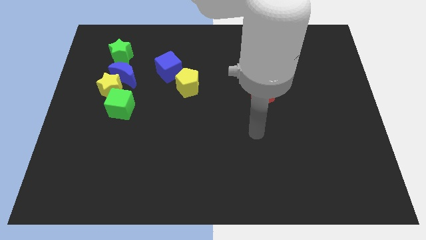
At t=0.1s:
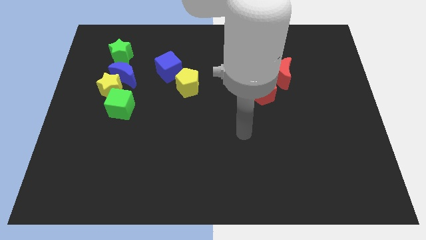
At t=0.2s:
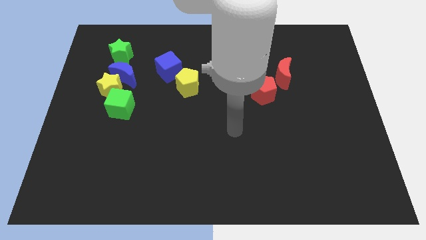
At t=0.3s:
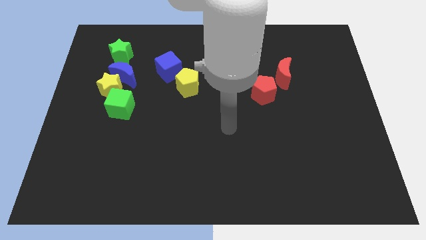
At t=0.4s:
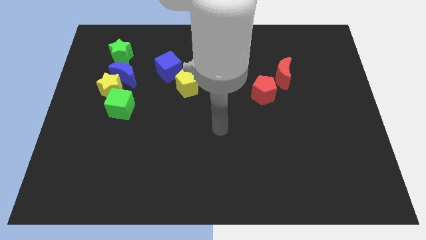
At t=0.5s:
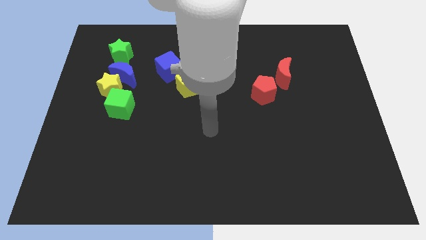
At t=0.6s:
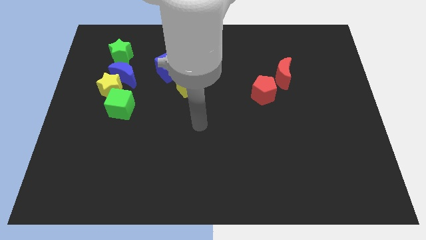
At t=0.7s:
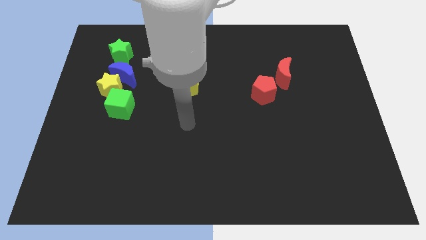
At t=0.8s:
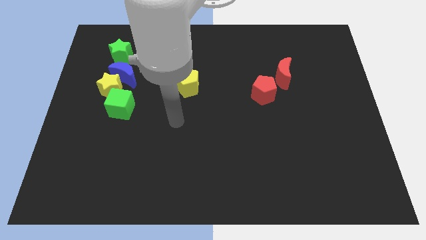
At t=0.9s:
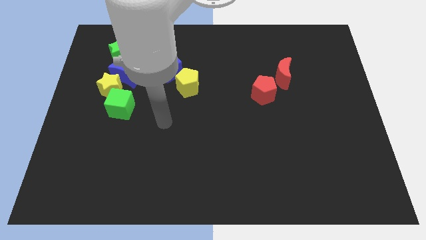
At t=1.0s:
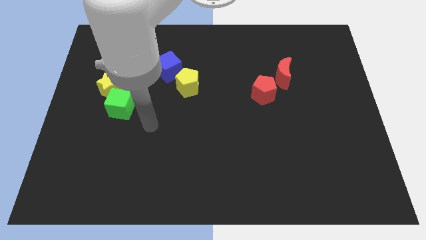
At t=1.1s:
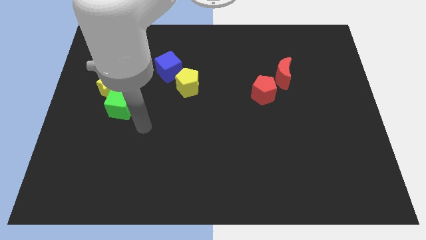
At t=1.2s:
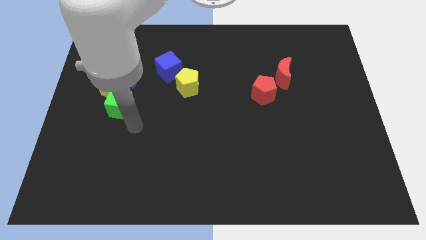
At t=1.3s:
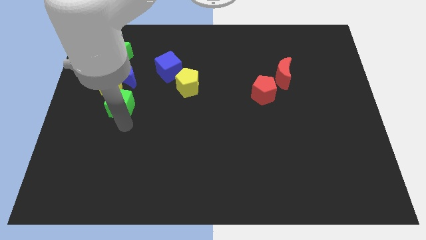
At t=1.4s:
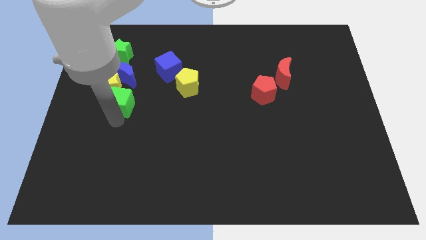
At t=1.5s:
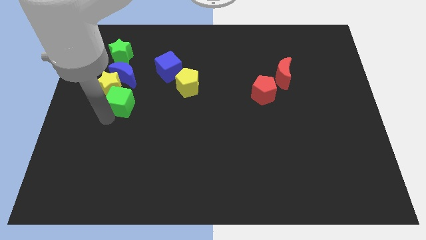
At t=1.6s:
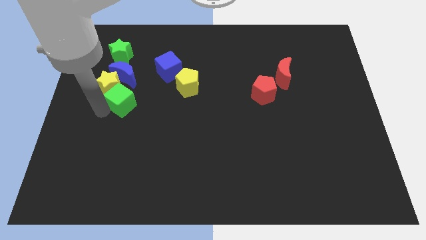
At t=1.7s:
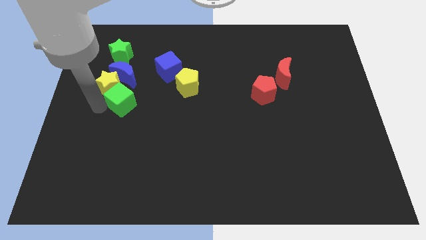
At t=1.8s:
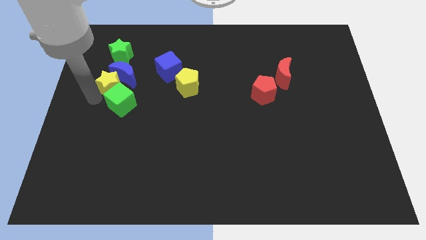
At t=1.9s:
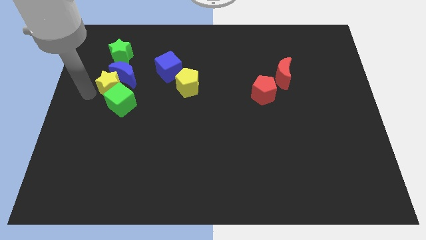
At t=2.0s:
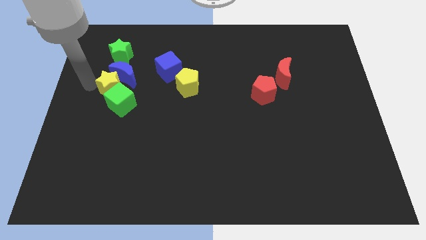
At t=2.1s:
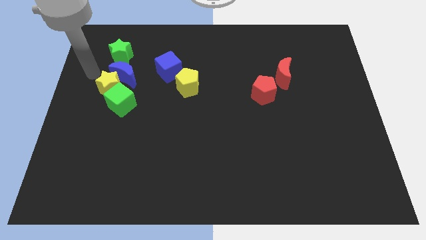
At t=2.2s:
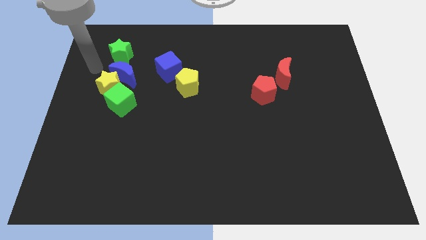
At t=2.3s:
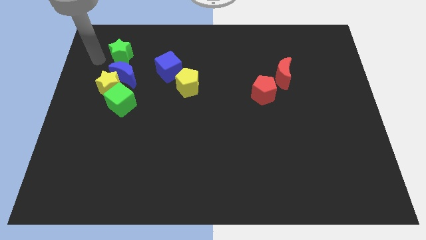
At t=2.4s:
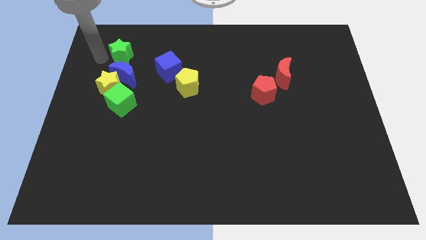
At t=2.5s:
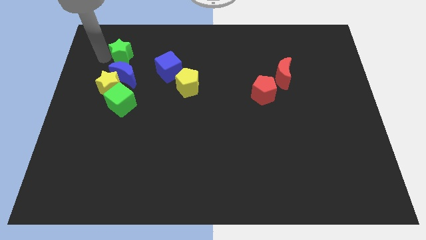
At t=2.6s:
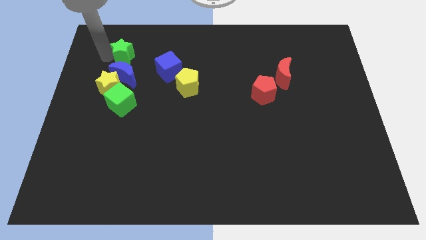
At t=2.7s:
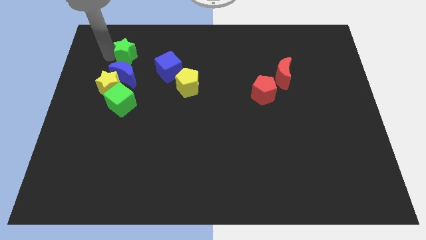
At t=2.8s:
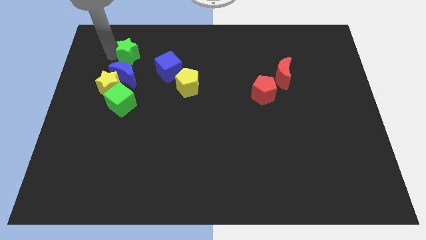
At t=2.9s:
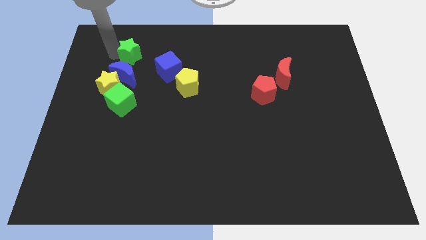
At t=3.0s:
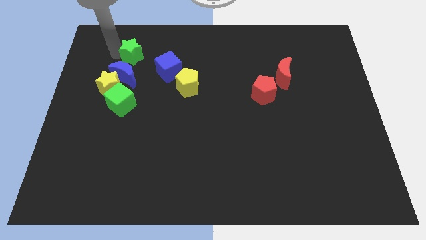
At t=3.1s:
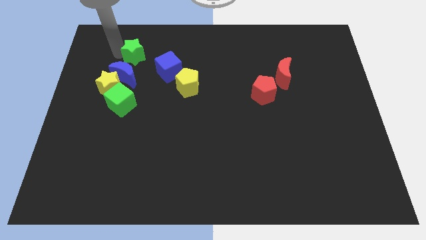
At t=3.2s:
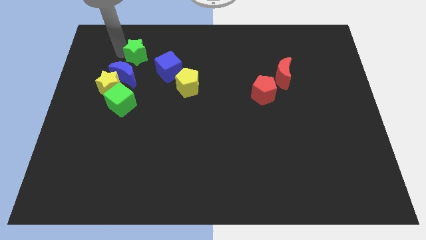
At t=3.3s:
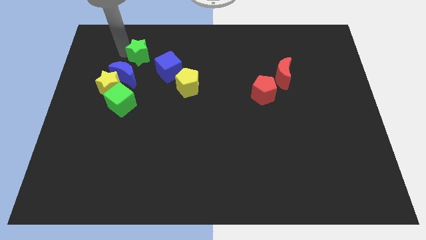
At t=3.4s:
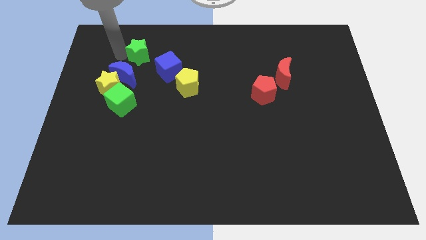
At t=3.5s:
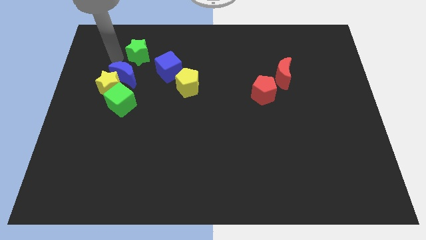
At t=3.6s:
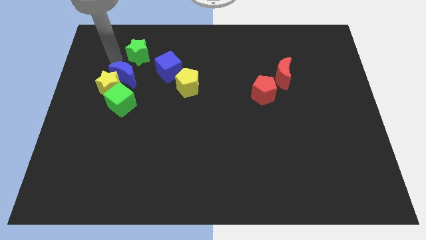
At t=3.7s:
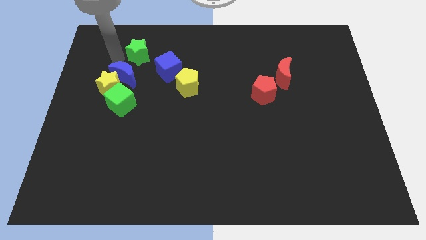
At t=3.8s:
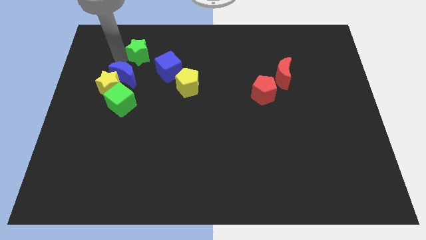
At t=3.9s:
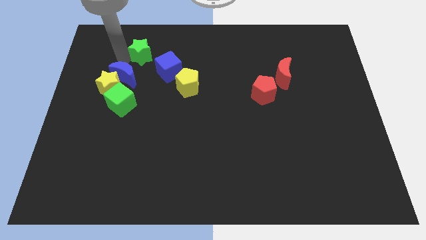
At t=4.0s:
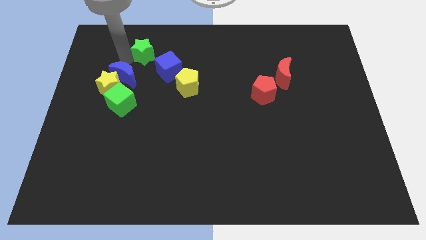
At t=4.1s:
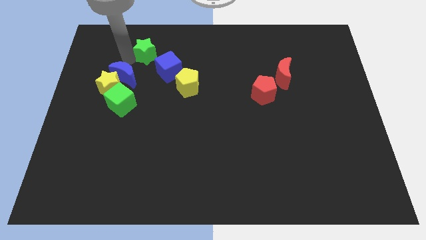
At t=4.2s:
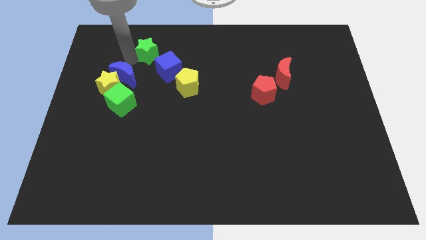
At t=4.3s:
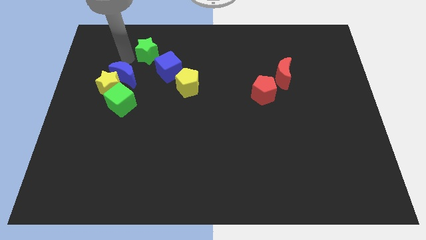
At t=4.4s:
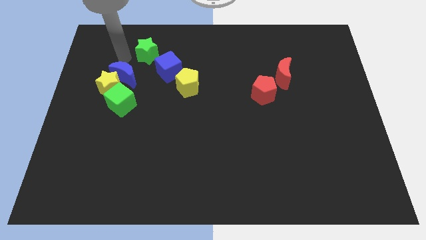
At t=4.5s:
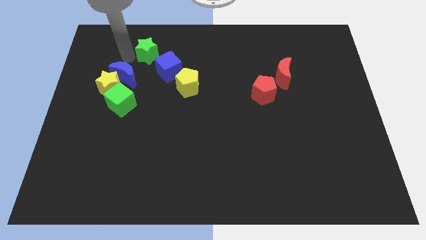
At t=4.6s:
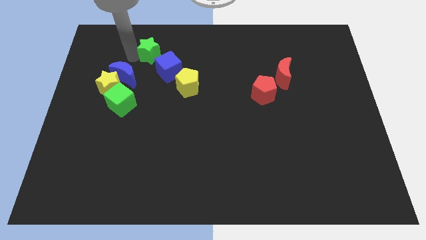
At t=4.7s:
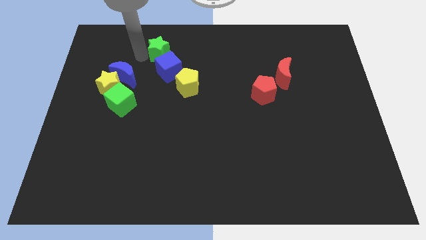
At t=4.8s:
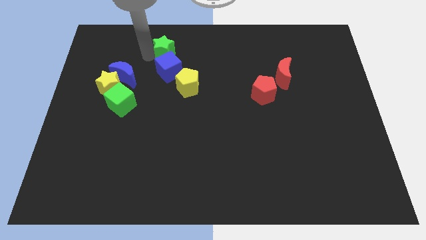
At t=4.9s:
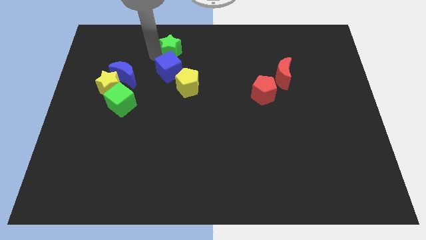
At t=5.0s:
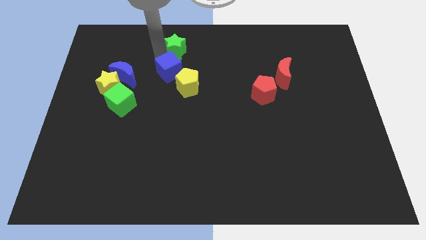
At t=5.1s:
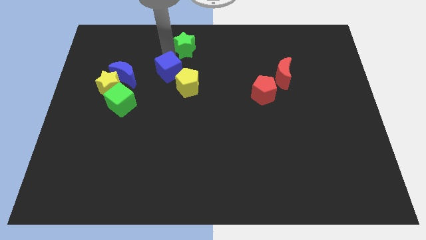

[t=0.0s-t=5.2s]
put the green star to the towards your base

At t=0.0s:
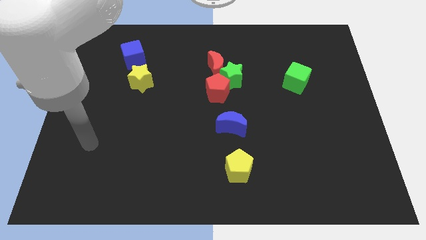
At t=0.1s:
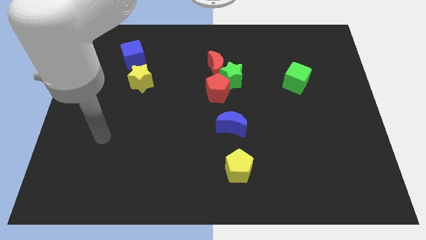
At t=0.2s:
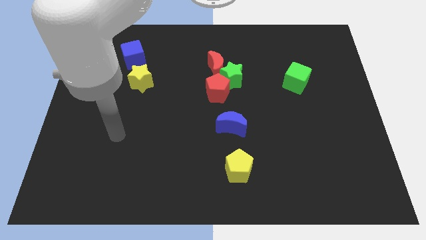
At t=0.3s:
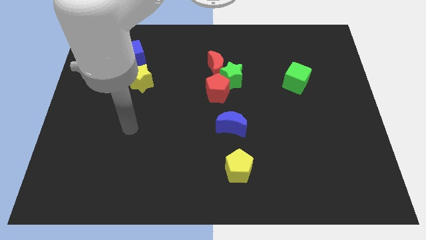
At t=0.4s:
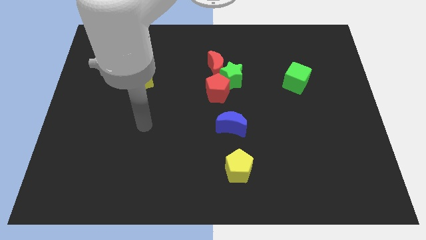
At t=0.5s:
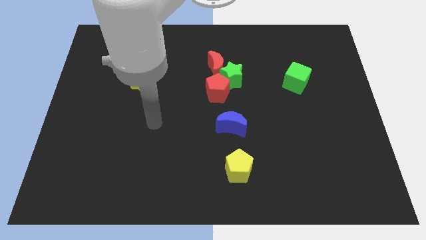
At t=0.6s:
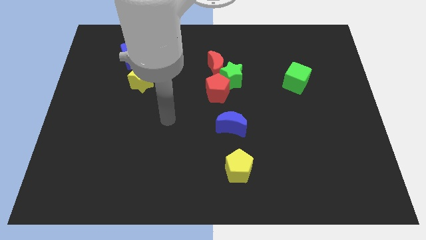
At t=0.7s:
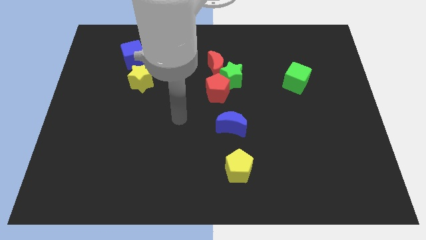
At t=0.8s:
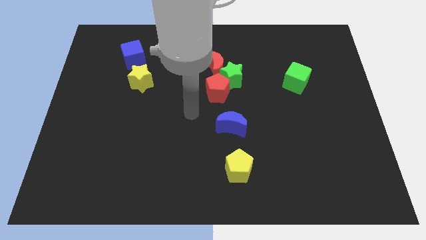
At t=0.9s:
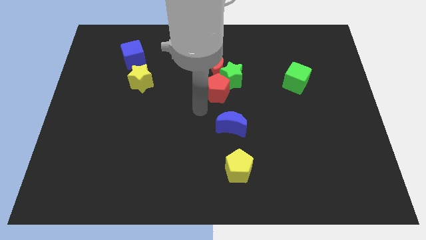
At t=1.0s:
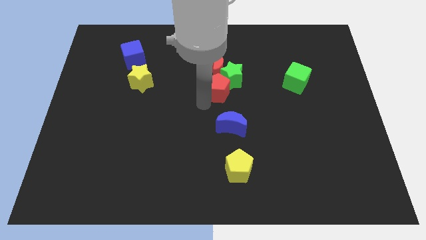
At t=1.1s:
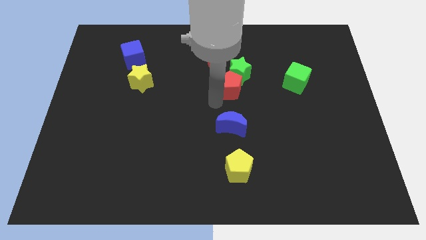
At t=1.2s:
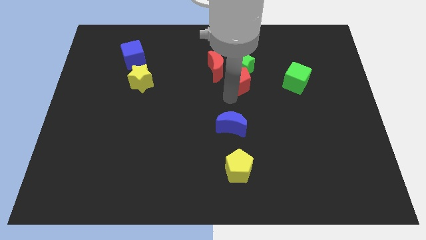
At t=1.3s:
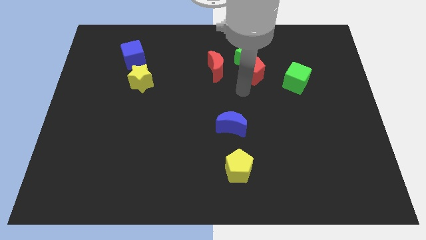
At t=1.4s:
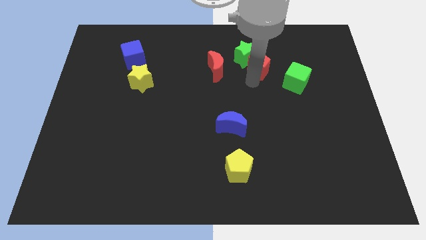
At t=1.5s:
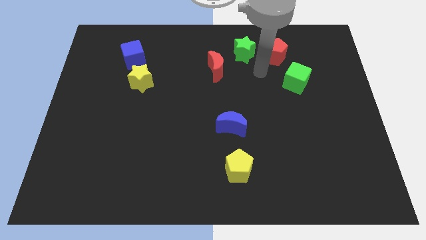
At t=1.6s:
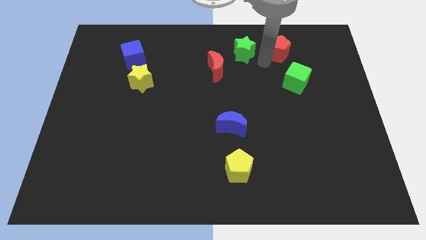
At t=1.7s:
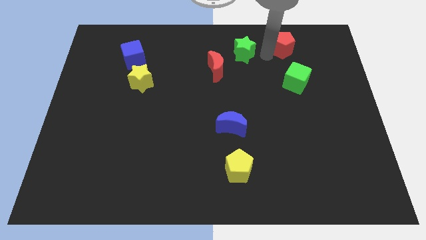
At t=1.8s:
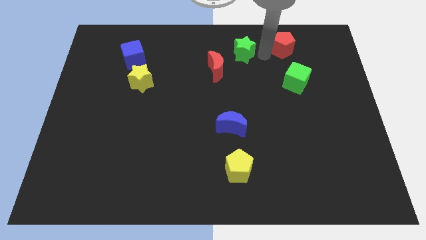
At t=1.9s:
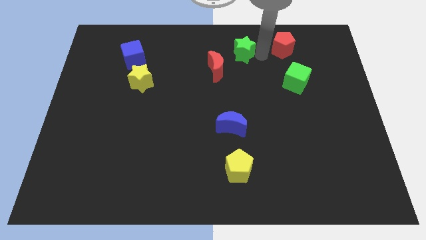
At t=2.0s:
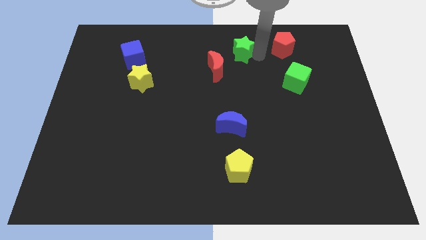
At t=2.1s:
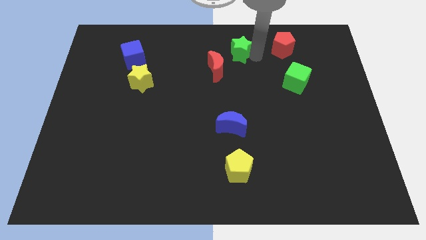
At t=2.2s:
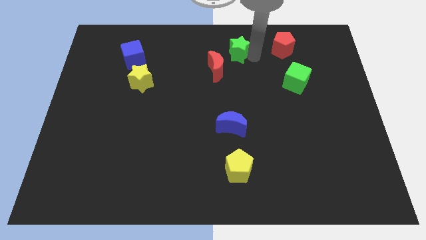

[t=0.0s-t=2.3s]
slide the green star to the top
